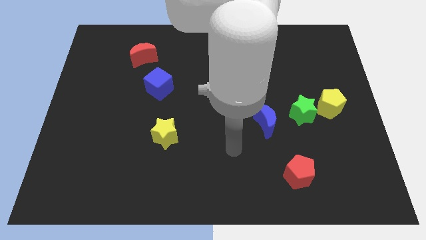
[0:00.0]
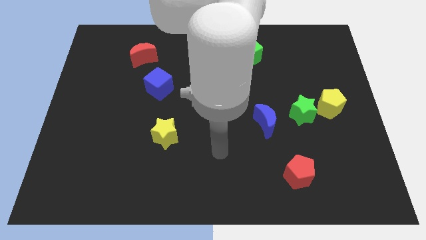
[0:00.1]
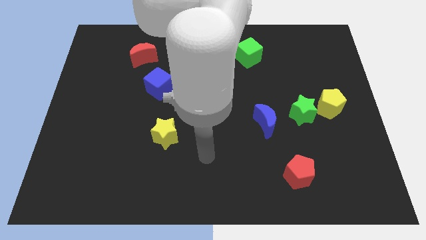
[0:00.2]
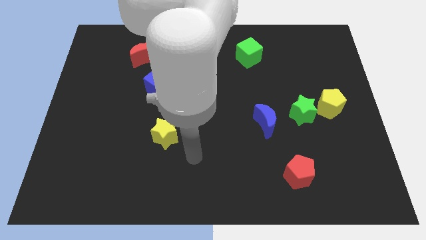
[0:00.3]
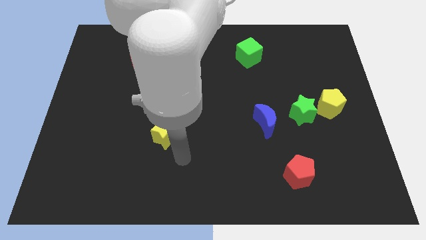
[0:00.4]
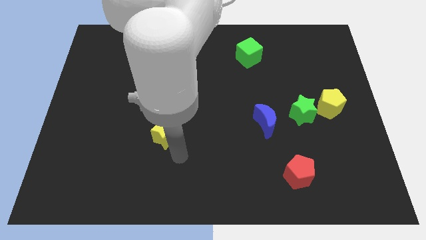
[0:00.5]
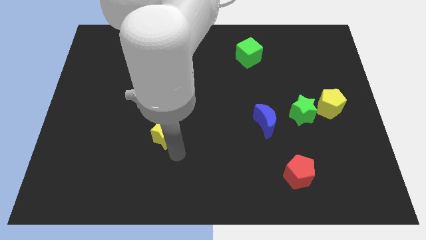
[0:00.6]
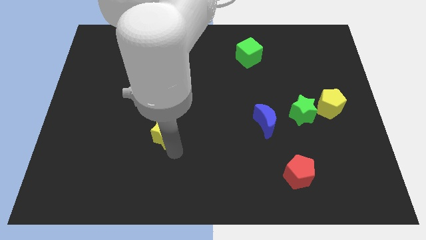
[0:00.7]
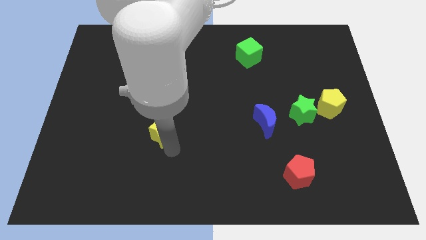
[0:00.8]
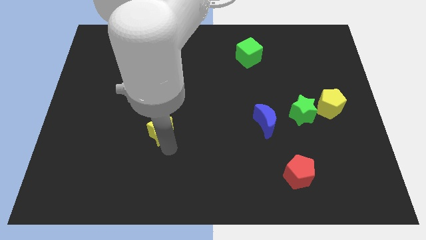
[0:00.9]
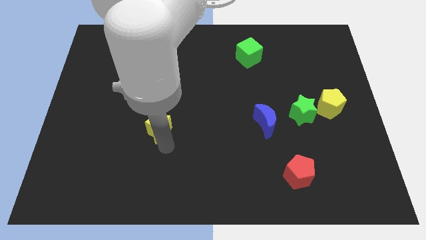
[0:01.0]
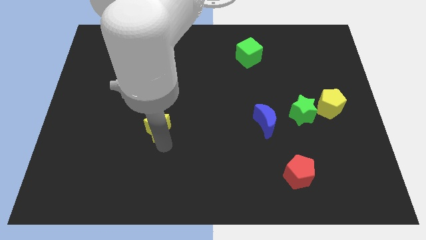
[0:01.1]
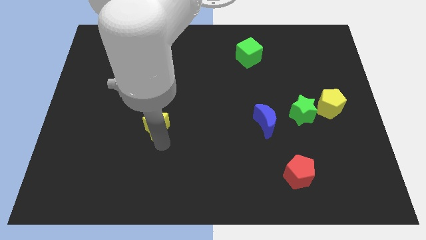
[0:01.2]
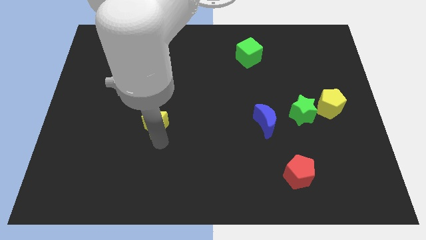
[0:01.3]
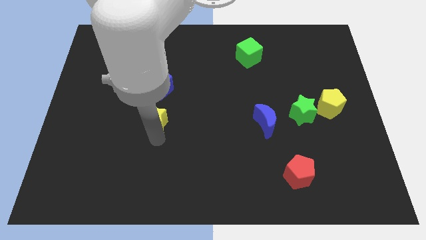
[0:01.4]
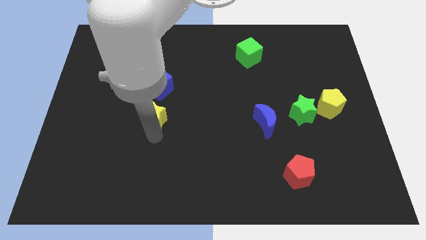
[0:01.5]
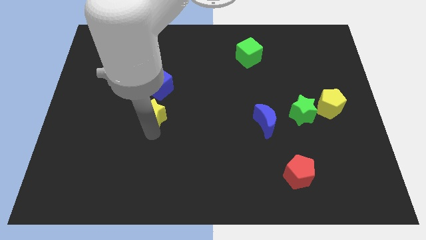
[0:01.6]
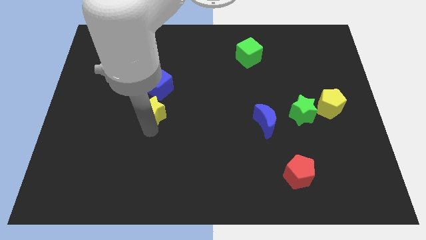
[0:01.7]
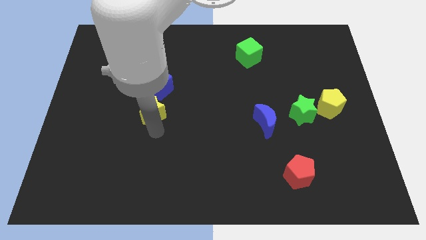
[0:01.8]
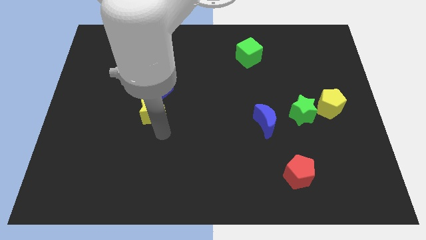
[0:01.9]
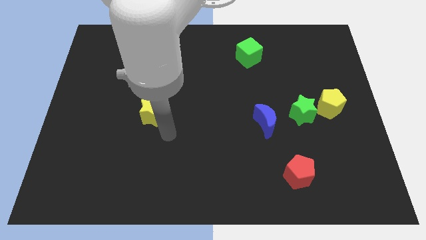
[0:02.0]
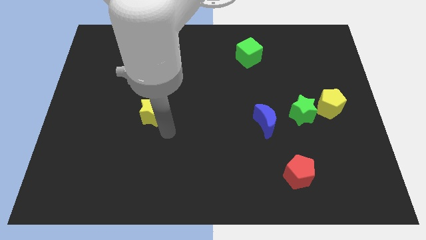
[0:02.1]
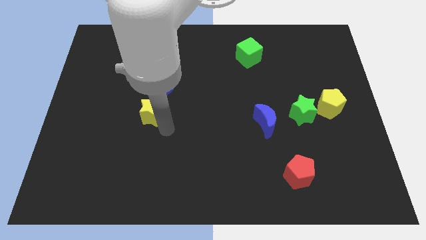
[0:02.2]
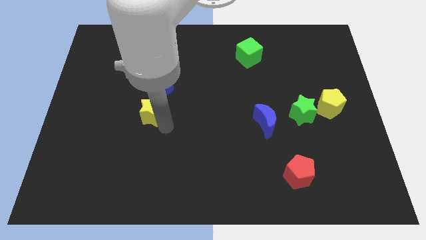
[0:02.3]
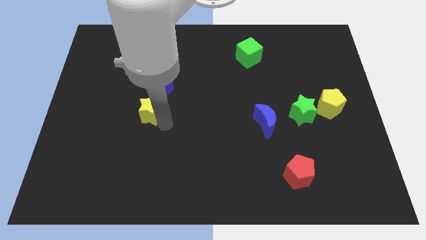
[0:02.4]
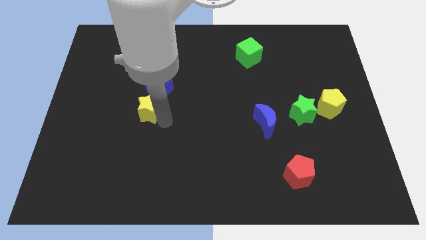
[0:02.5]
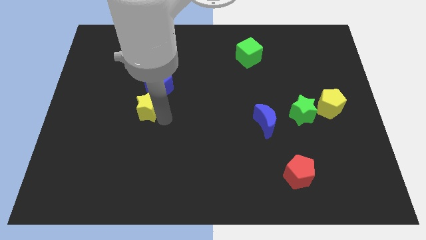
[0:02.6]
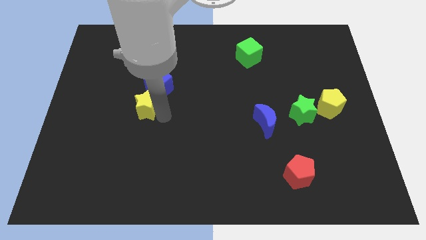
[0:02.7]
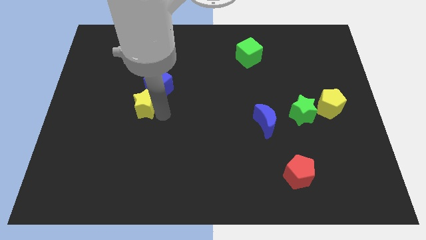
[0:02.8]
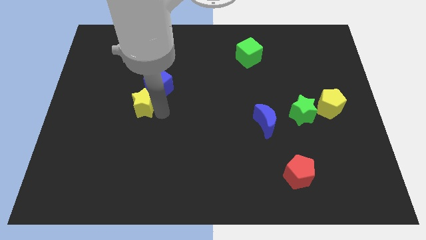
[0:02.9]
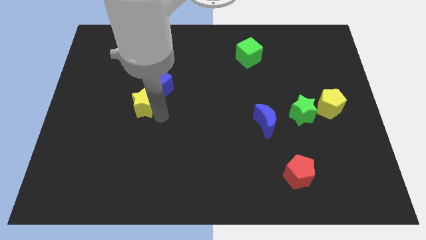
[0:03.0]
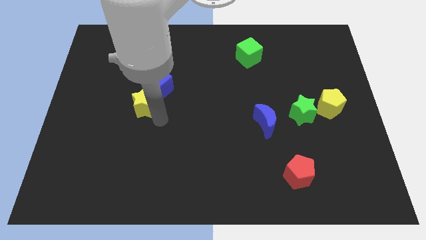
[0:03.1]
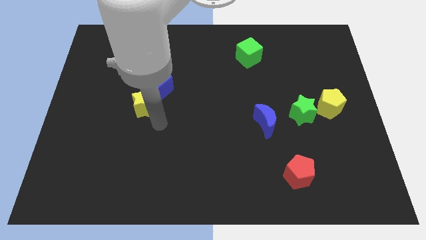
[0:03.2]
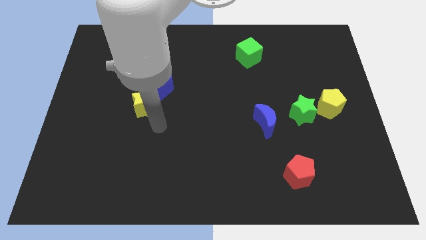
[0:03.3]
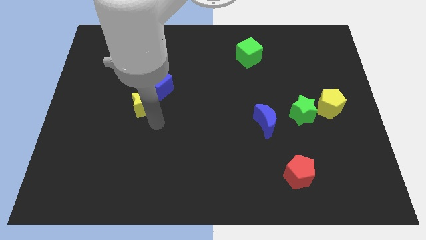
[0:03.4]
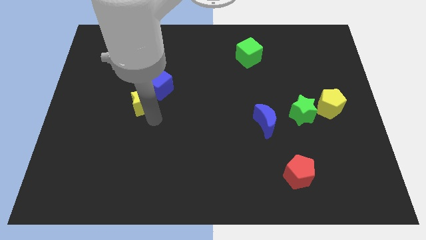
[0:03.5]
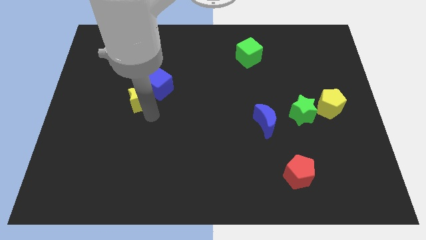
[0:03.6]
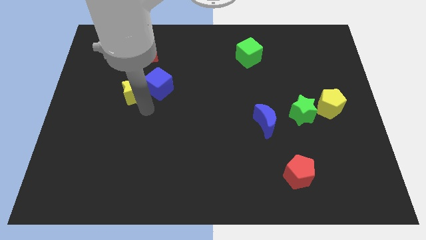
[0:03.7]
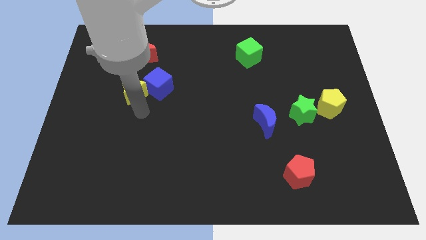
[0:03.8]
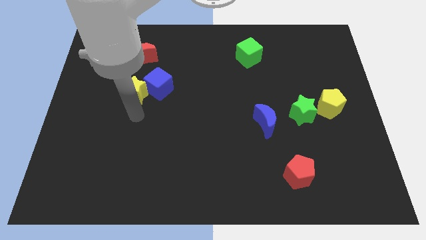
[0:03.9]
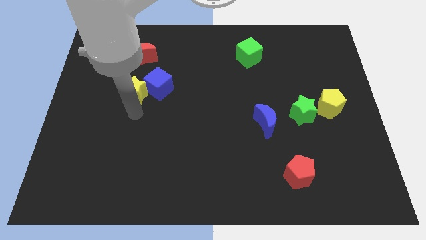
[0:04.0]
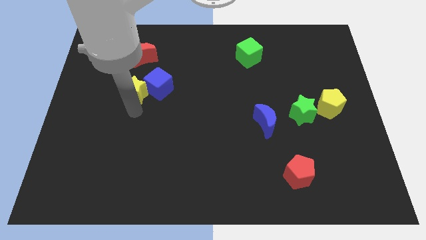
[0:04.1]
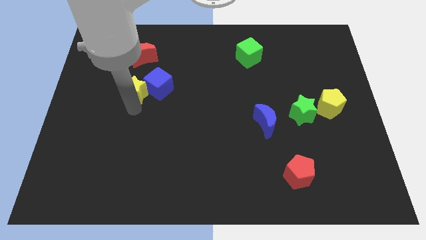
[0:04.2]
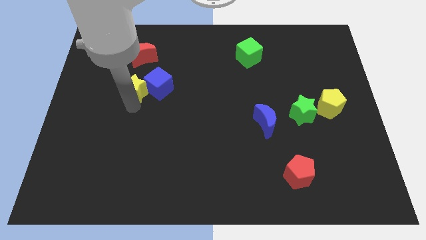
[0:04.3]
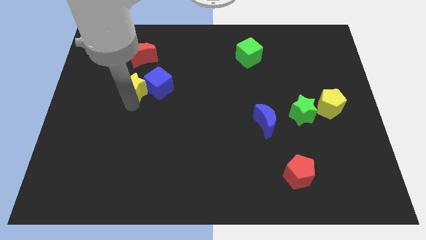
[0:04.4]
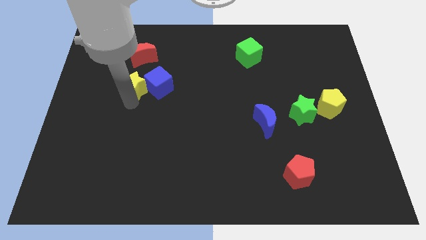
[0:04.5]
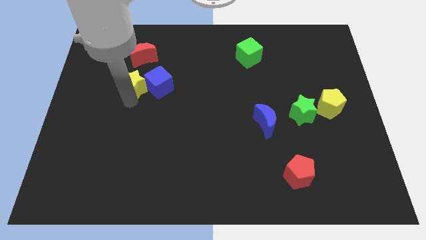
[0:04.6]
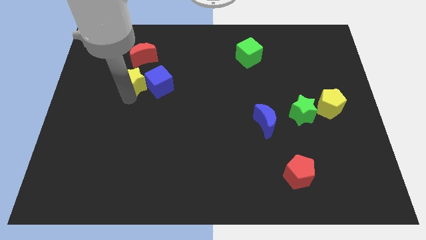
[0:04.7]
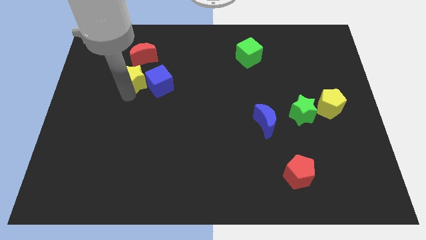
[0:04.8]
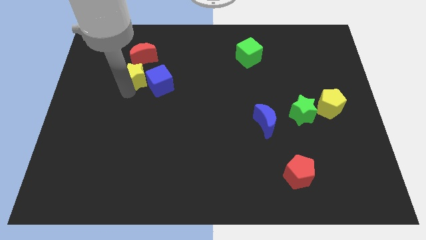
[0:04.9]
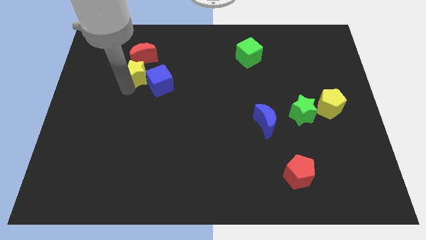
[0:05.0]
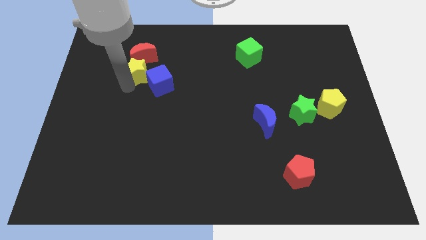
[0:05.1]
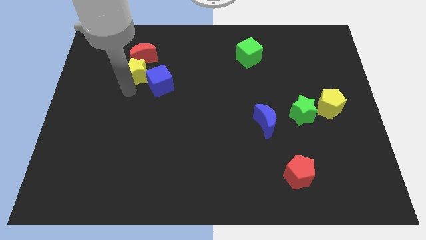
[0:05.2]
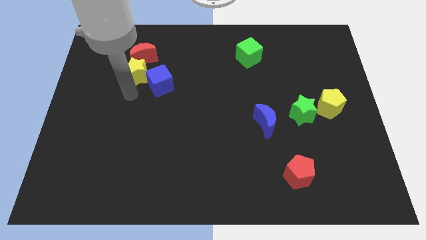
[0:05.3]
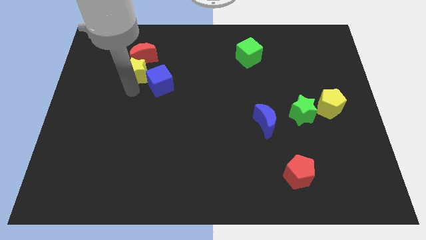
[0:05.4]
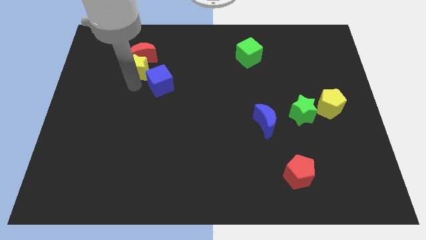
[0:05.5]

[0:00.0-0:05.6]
put the yellow star next to the red moon

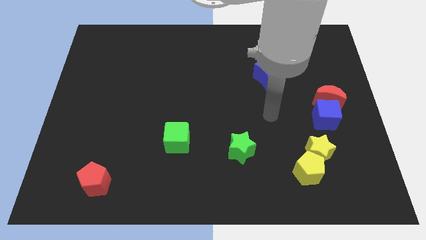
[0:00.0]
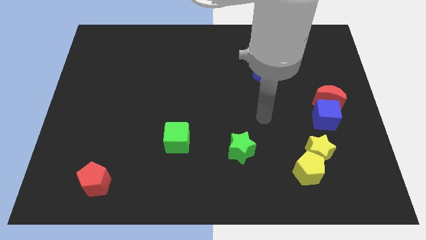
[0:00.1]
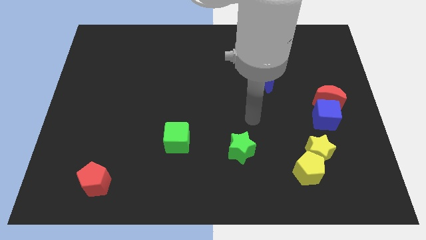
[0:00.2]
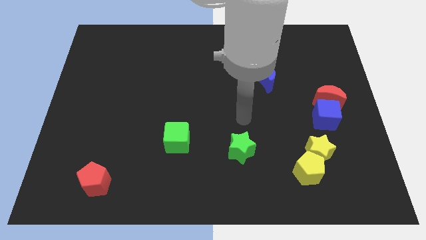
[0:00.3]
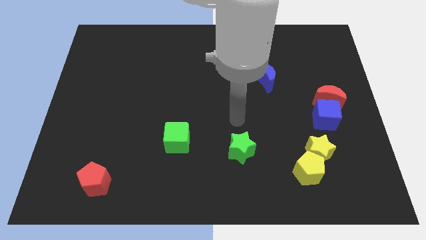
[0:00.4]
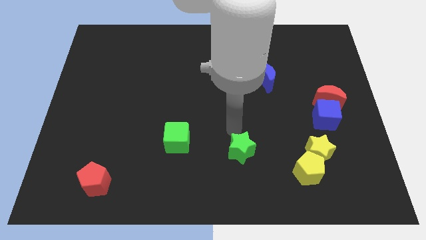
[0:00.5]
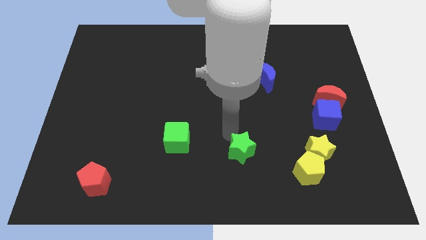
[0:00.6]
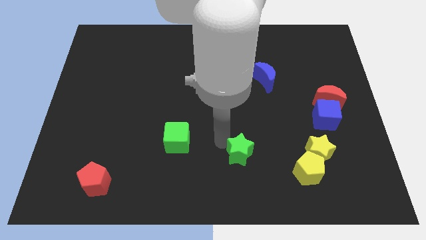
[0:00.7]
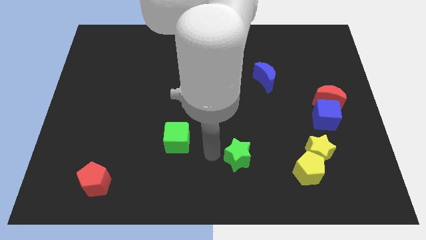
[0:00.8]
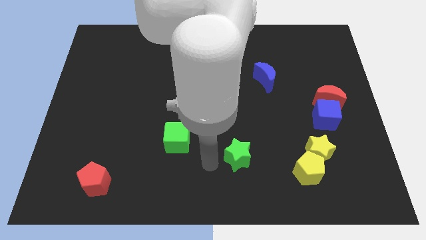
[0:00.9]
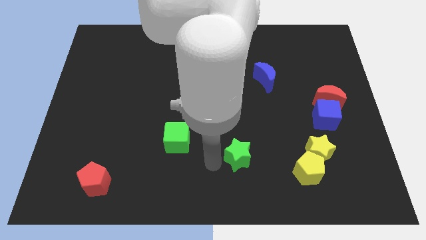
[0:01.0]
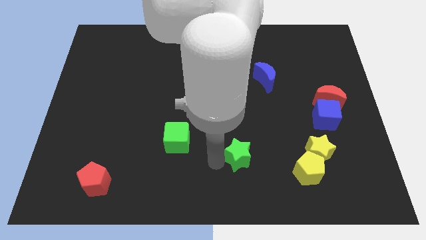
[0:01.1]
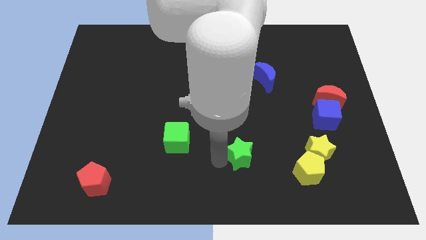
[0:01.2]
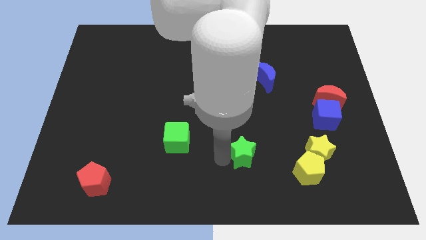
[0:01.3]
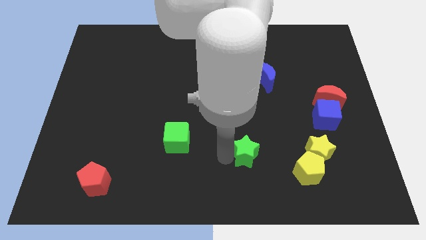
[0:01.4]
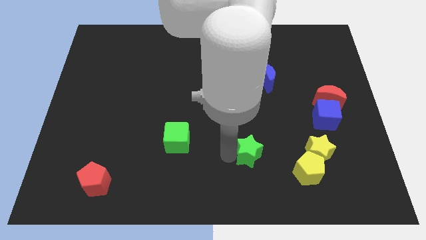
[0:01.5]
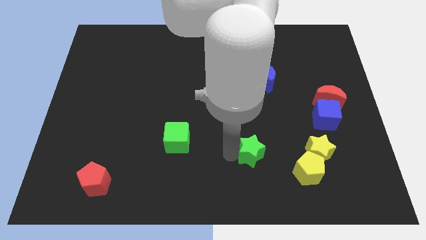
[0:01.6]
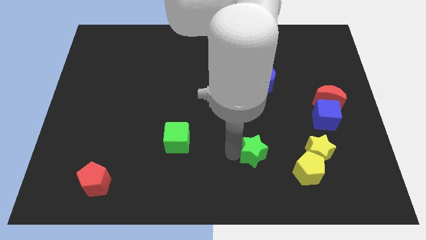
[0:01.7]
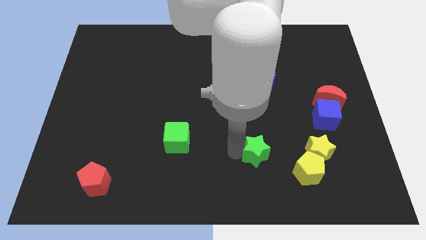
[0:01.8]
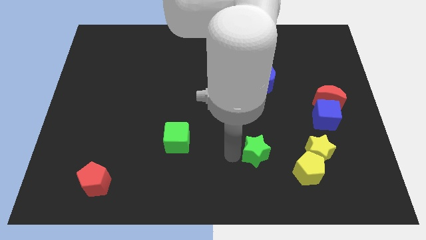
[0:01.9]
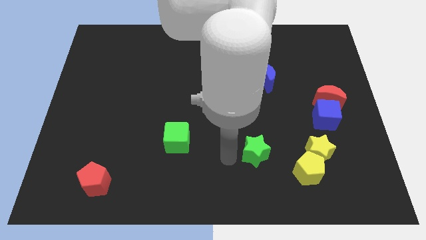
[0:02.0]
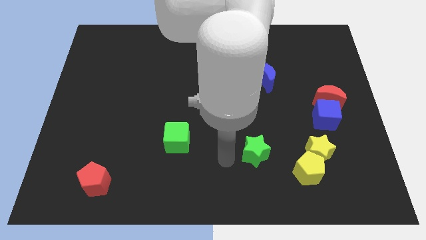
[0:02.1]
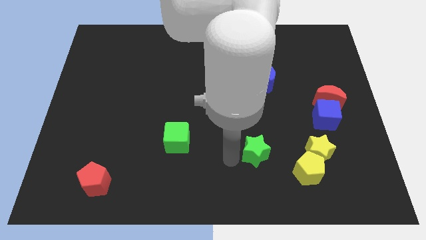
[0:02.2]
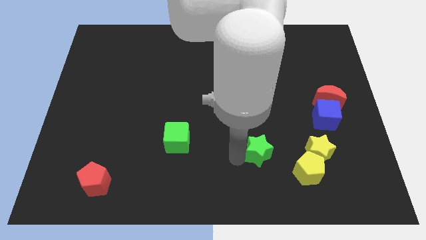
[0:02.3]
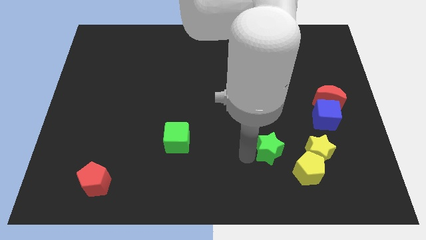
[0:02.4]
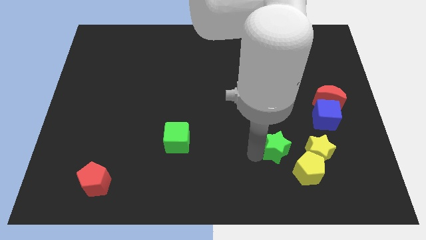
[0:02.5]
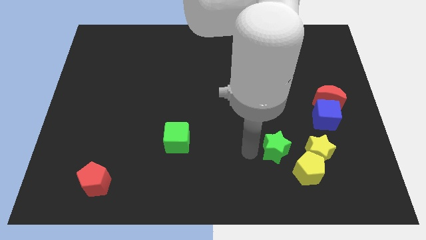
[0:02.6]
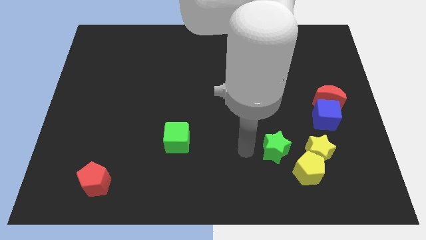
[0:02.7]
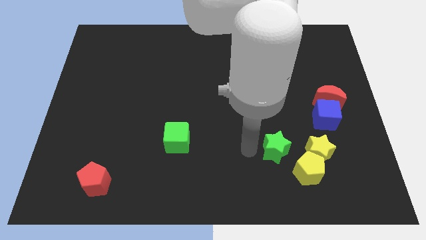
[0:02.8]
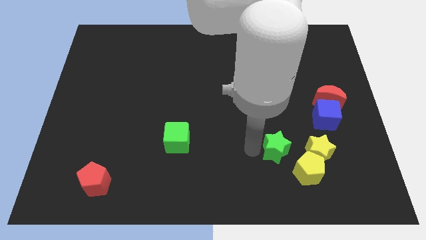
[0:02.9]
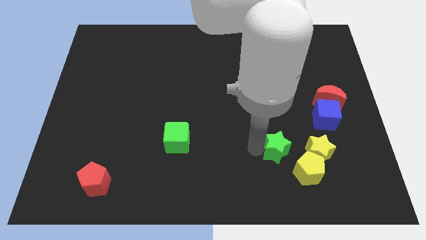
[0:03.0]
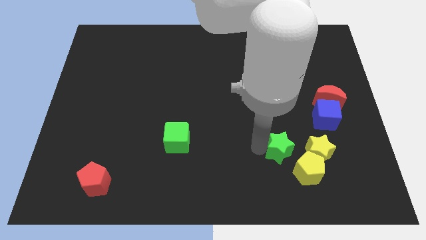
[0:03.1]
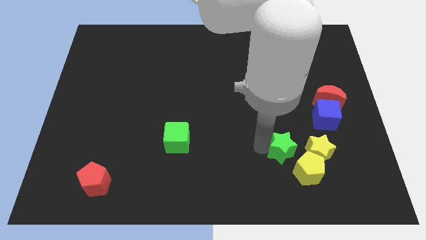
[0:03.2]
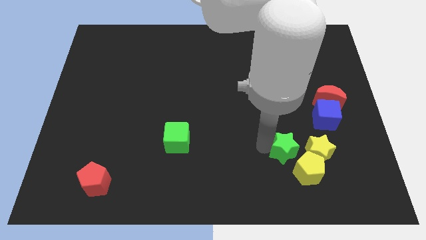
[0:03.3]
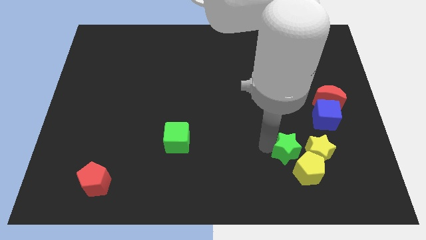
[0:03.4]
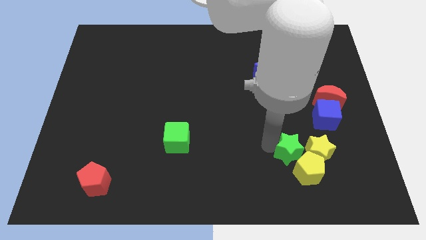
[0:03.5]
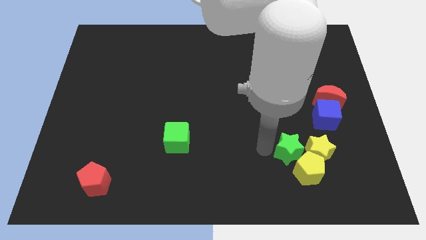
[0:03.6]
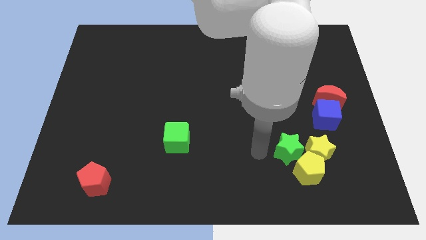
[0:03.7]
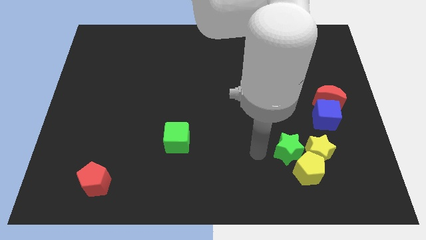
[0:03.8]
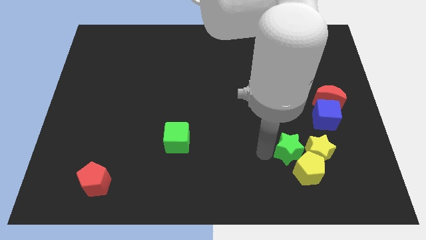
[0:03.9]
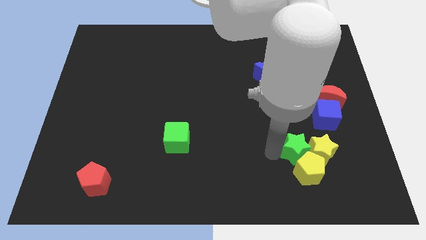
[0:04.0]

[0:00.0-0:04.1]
put the green star close to the yellow star
